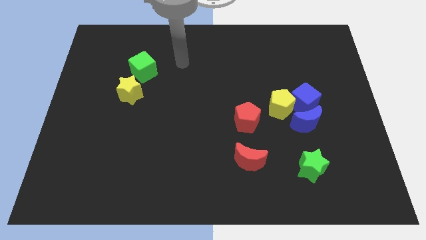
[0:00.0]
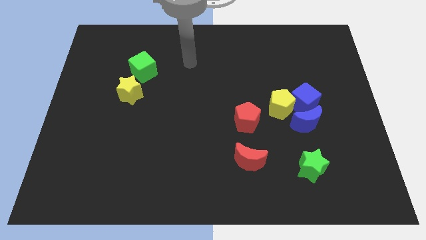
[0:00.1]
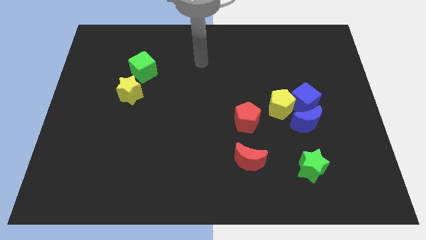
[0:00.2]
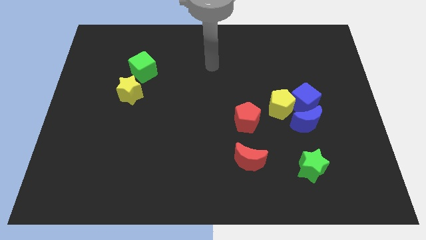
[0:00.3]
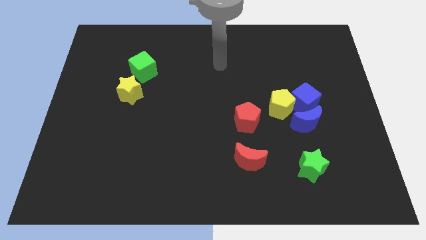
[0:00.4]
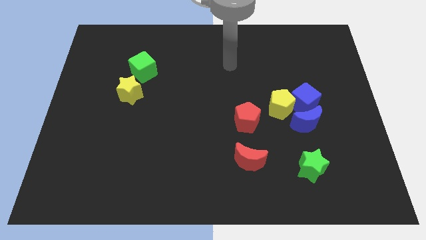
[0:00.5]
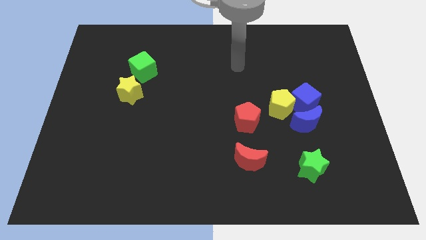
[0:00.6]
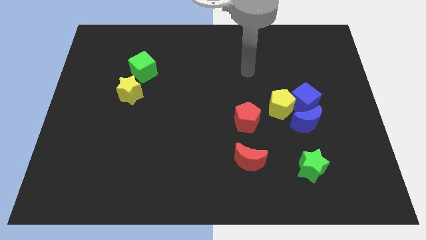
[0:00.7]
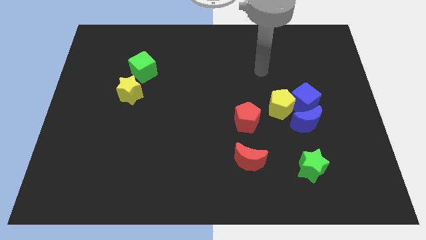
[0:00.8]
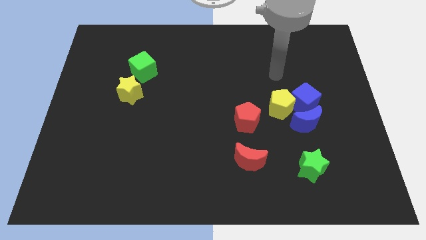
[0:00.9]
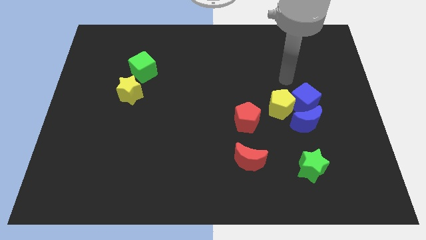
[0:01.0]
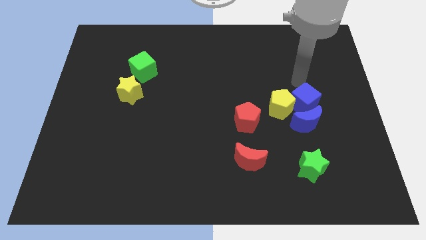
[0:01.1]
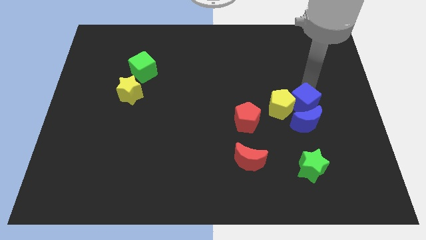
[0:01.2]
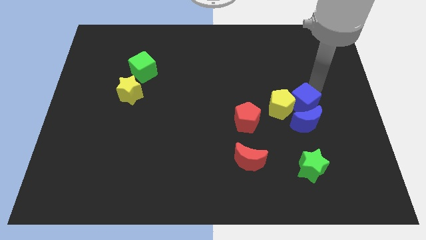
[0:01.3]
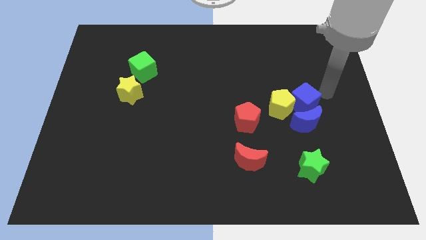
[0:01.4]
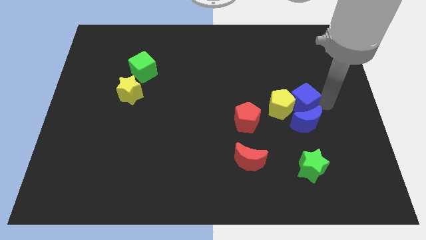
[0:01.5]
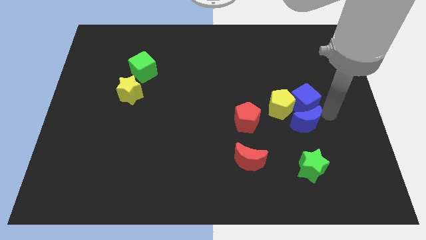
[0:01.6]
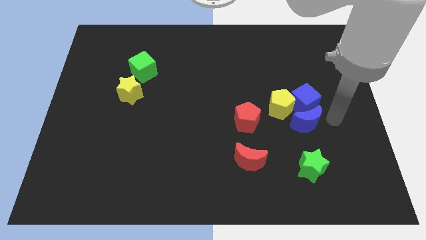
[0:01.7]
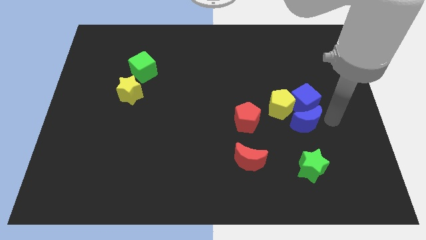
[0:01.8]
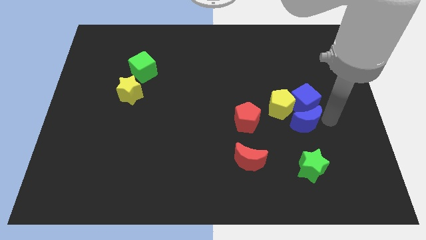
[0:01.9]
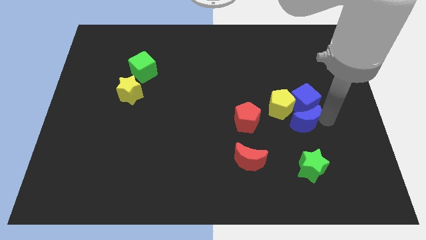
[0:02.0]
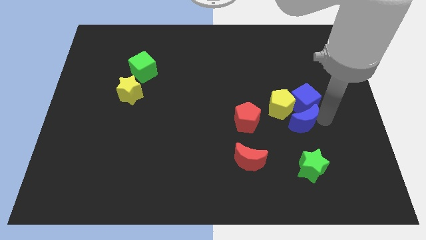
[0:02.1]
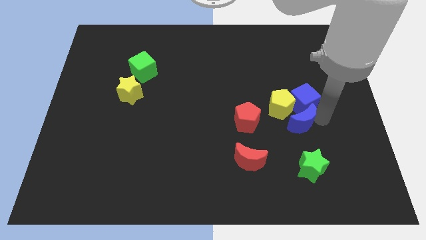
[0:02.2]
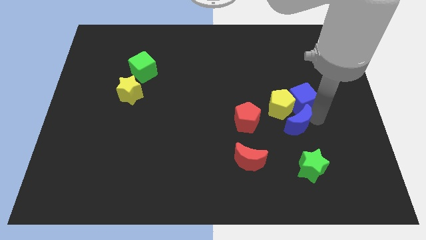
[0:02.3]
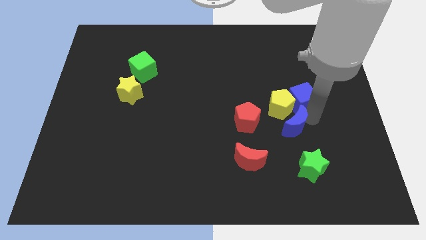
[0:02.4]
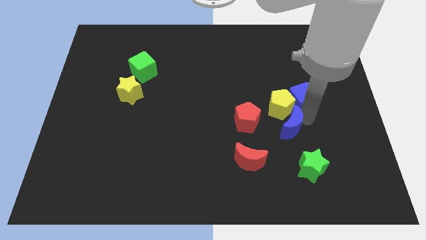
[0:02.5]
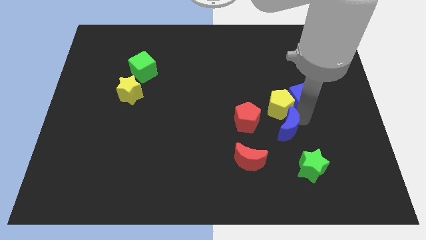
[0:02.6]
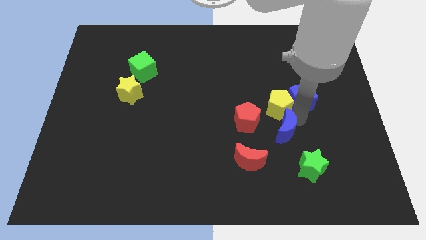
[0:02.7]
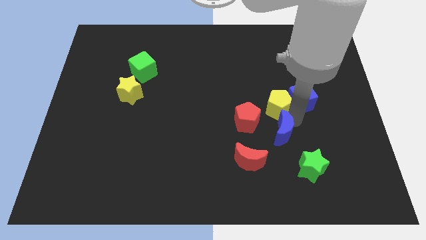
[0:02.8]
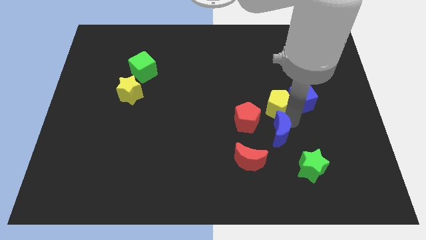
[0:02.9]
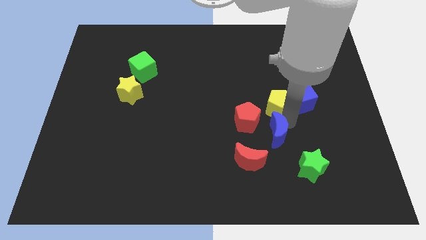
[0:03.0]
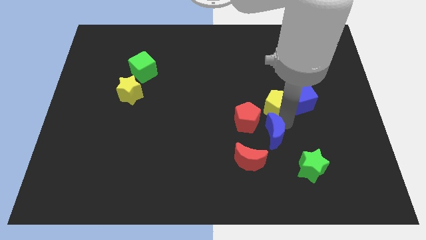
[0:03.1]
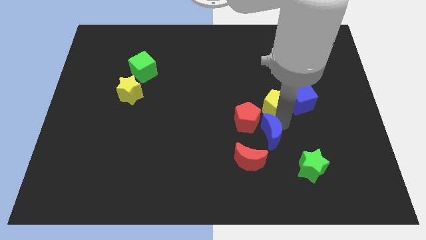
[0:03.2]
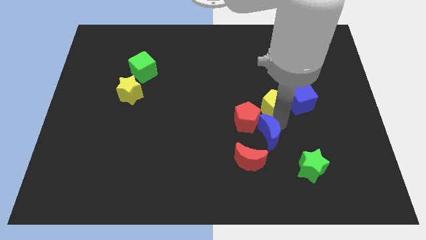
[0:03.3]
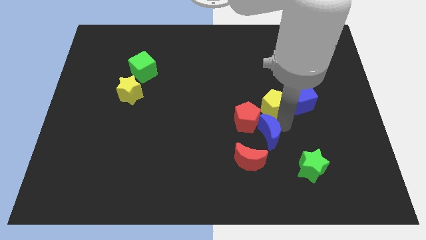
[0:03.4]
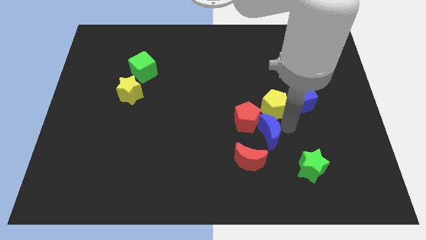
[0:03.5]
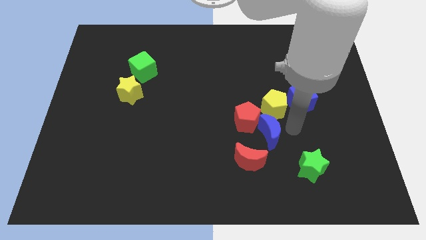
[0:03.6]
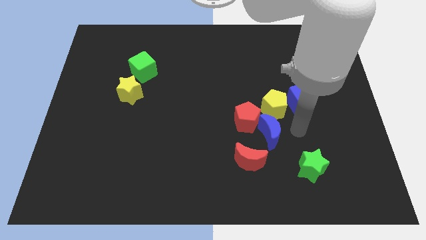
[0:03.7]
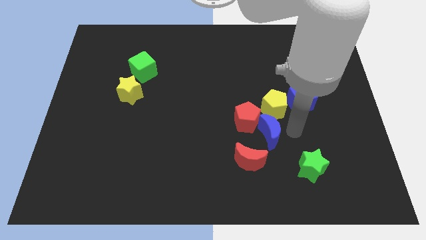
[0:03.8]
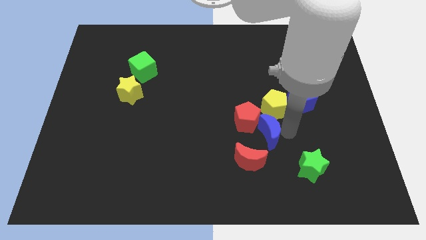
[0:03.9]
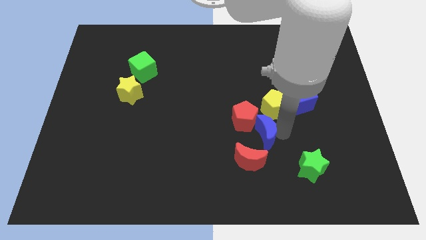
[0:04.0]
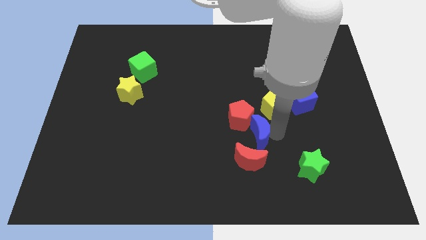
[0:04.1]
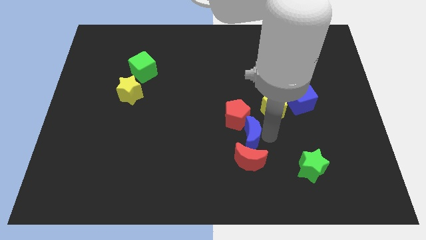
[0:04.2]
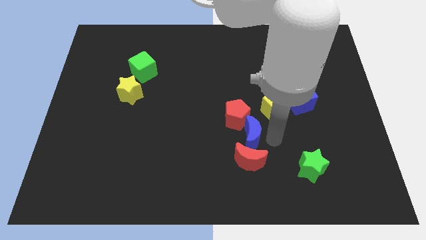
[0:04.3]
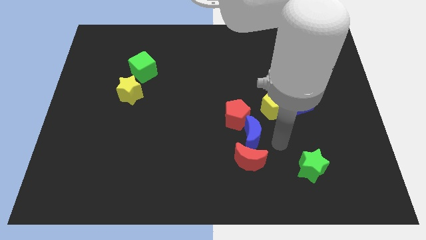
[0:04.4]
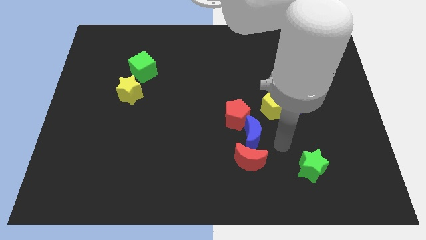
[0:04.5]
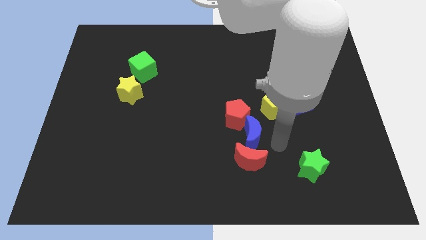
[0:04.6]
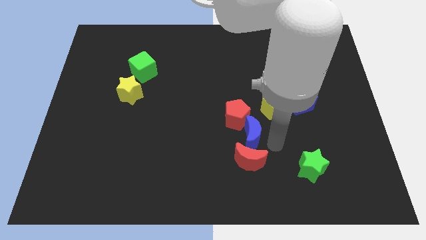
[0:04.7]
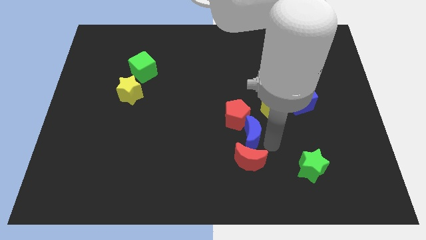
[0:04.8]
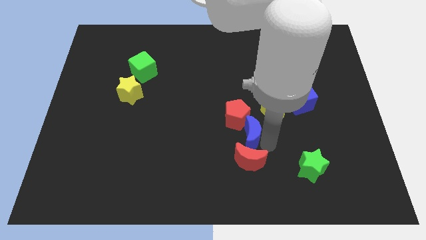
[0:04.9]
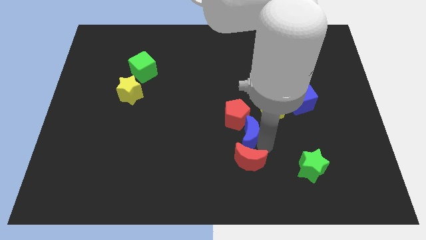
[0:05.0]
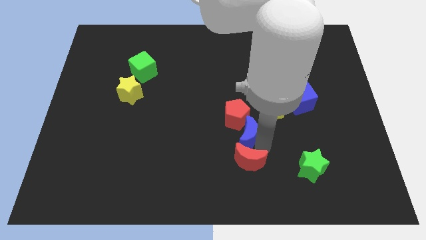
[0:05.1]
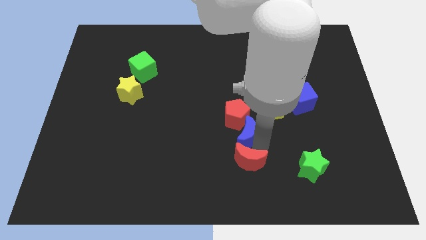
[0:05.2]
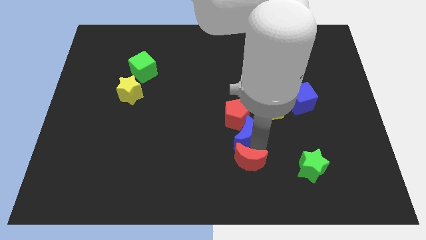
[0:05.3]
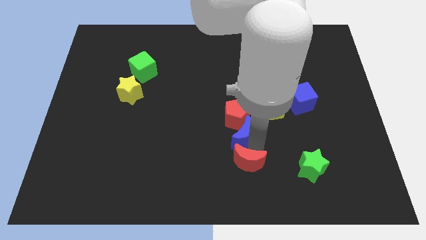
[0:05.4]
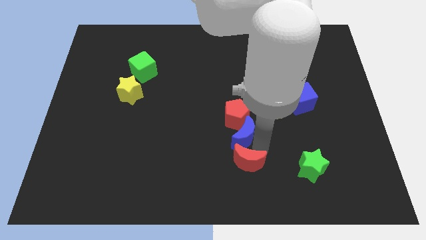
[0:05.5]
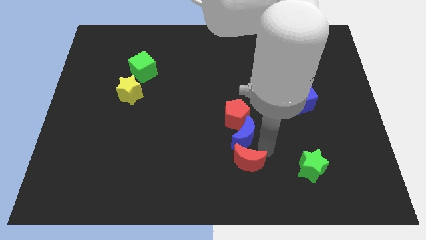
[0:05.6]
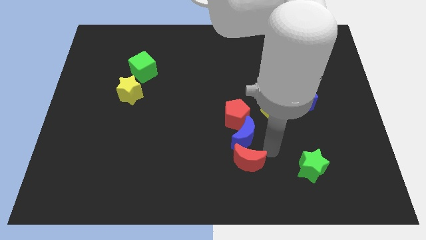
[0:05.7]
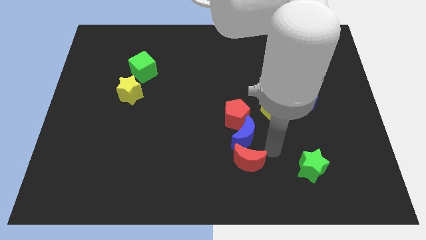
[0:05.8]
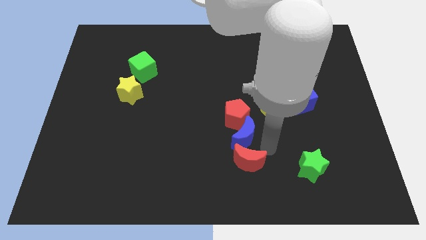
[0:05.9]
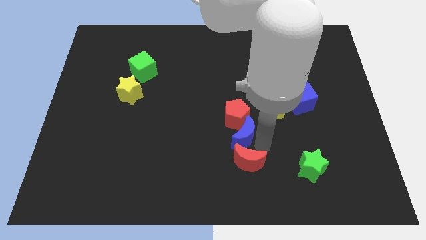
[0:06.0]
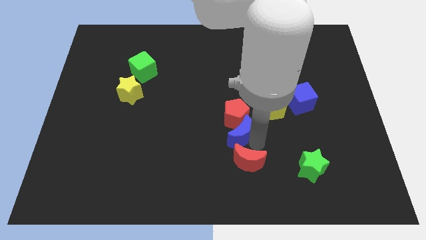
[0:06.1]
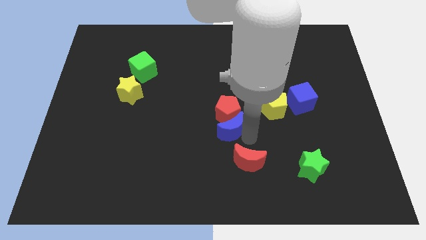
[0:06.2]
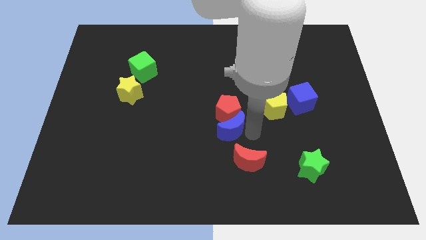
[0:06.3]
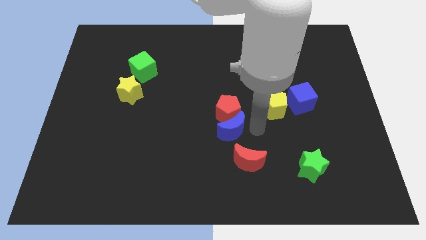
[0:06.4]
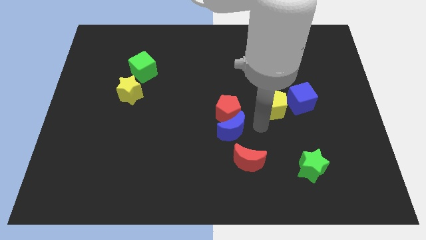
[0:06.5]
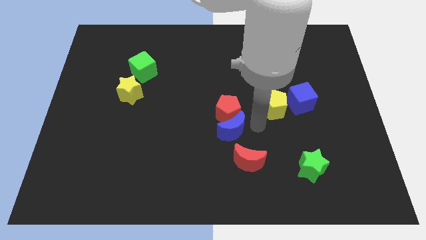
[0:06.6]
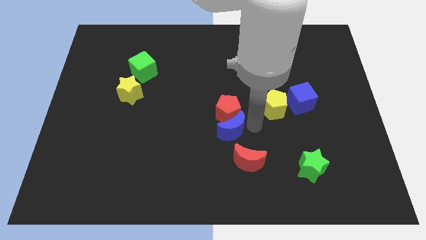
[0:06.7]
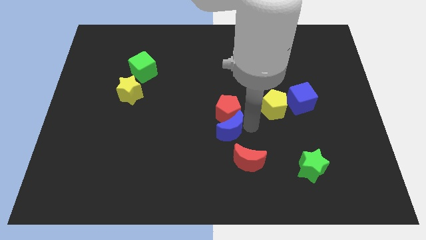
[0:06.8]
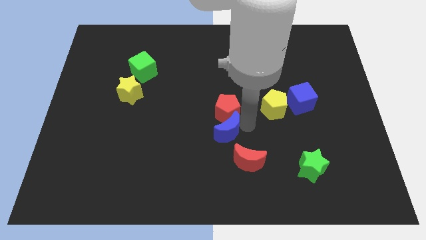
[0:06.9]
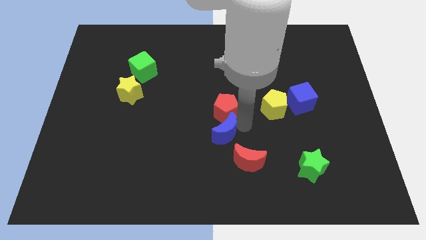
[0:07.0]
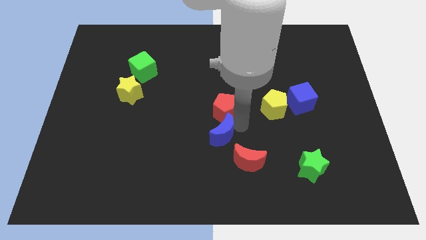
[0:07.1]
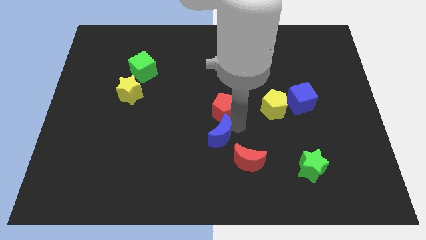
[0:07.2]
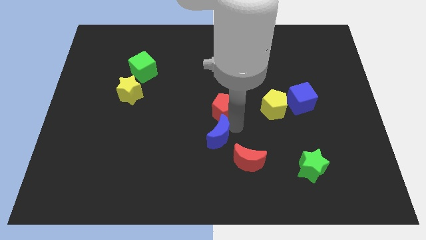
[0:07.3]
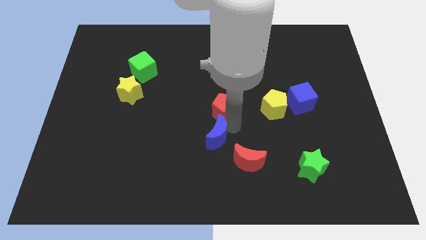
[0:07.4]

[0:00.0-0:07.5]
slide the blue moon left

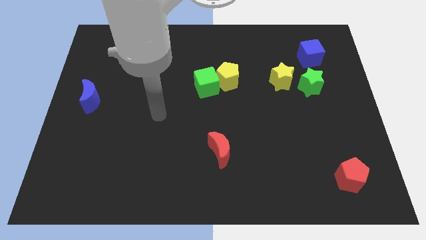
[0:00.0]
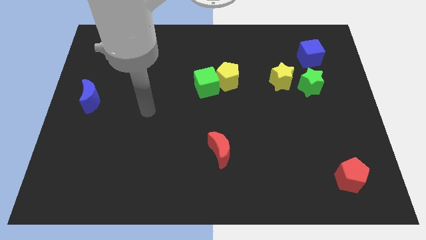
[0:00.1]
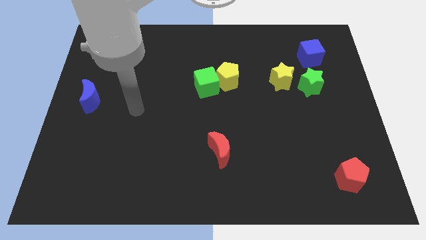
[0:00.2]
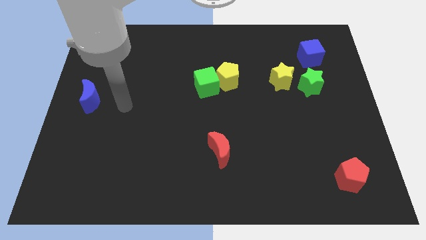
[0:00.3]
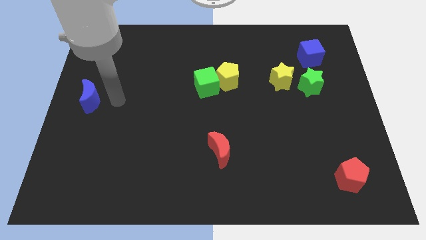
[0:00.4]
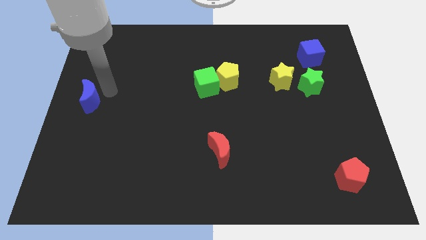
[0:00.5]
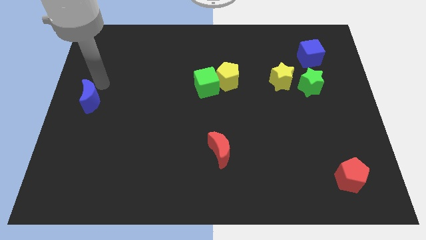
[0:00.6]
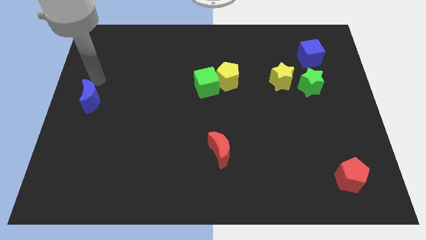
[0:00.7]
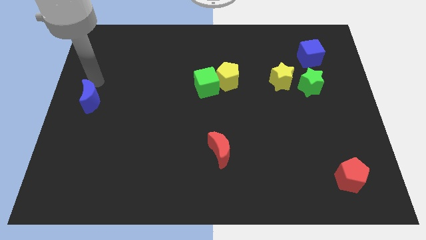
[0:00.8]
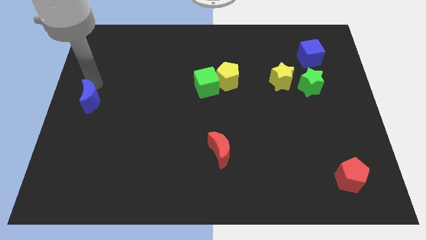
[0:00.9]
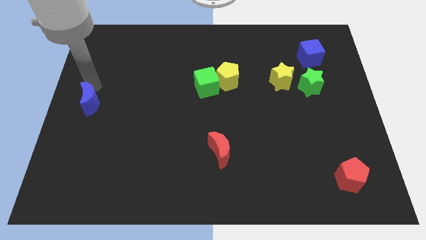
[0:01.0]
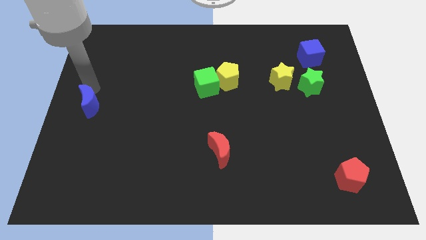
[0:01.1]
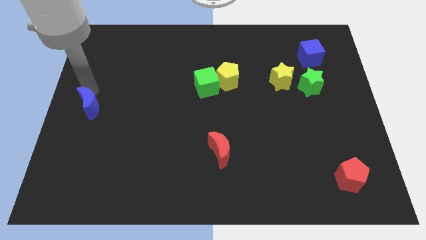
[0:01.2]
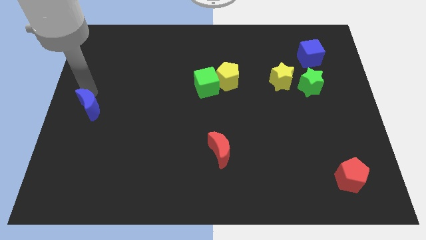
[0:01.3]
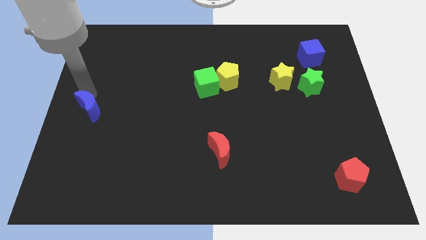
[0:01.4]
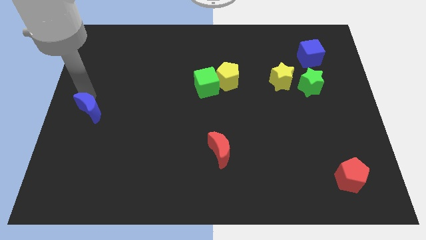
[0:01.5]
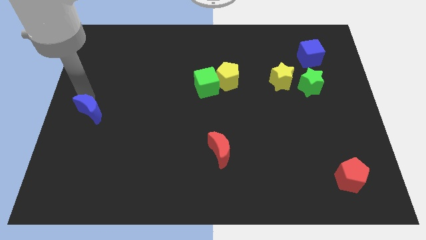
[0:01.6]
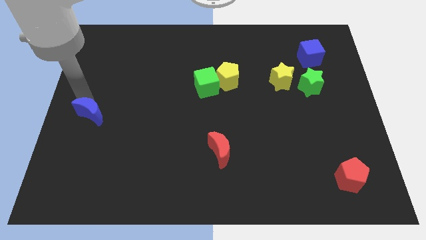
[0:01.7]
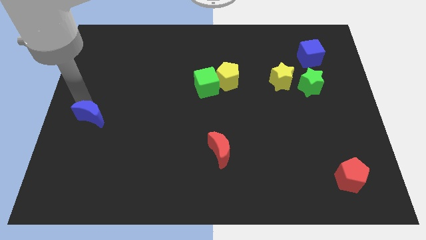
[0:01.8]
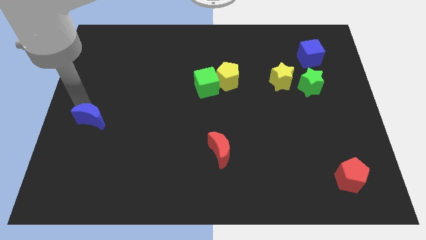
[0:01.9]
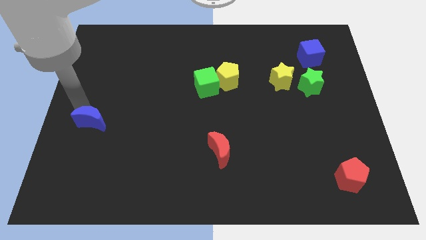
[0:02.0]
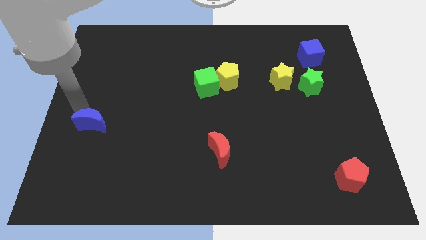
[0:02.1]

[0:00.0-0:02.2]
slide the blue moon down a bit
